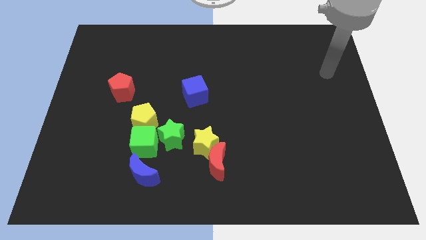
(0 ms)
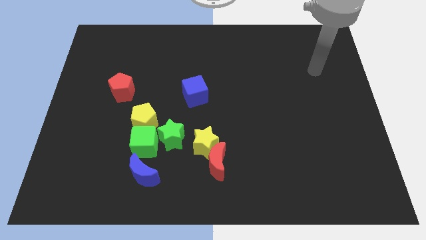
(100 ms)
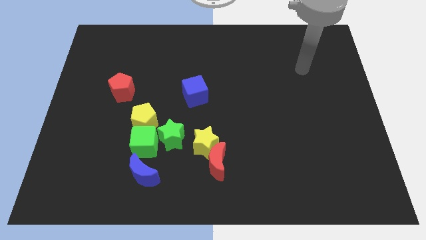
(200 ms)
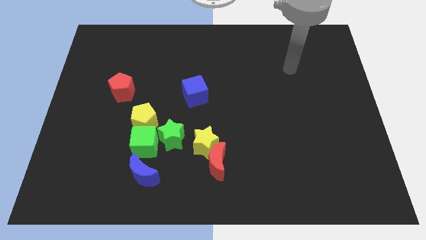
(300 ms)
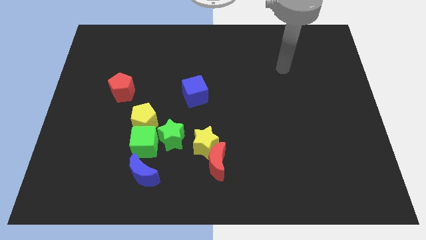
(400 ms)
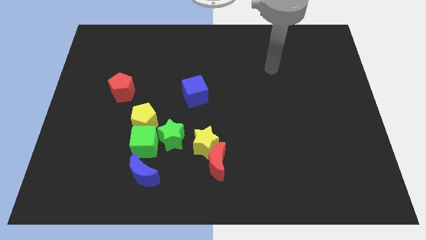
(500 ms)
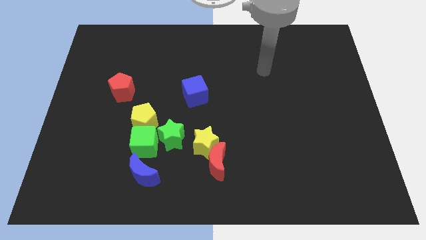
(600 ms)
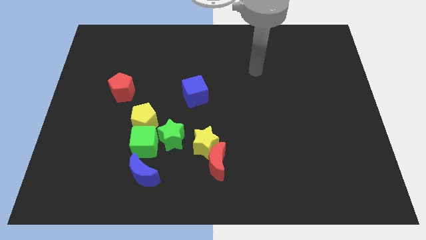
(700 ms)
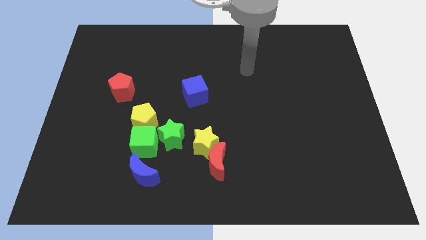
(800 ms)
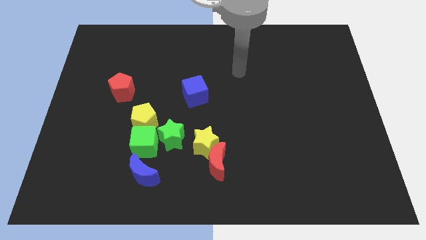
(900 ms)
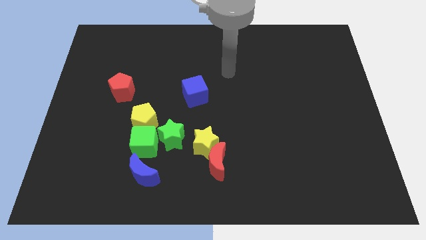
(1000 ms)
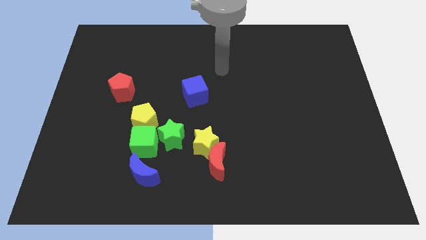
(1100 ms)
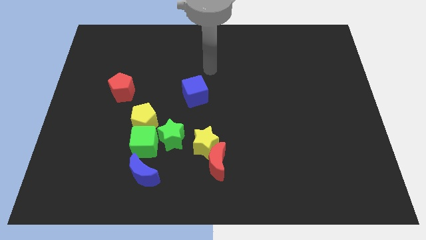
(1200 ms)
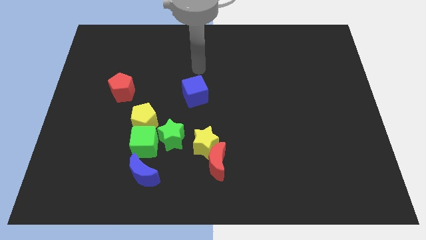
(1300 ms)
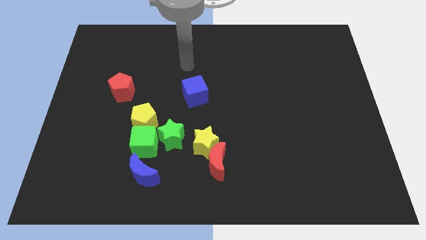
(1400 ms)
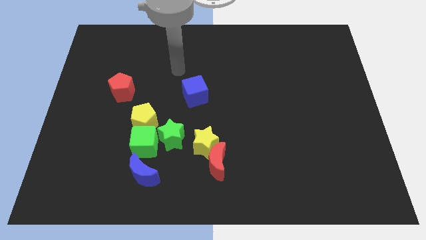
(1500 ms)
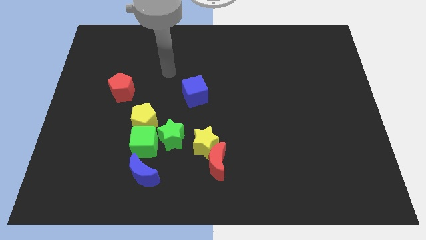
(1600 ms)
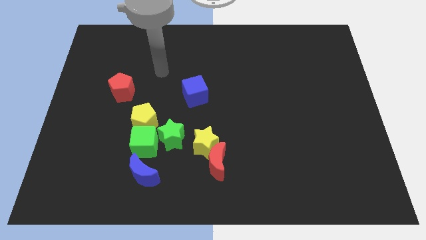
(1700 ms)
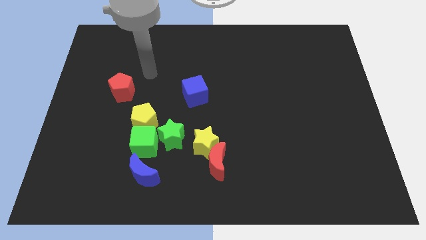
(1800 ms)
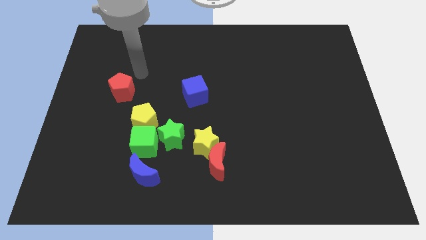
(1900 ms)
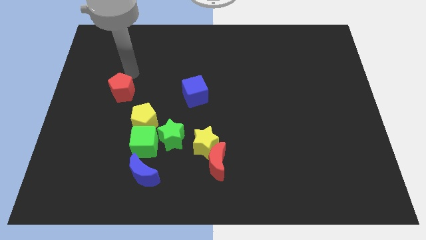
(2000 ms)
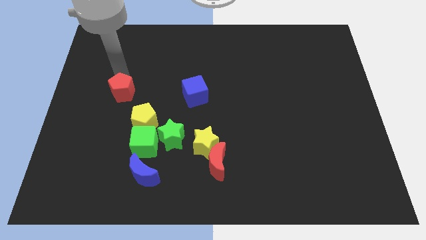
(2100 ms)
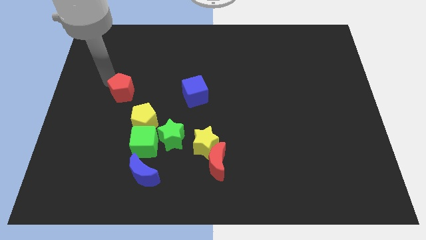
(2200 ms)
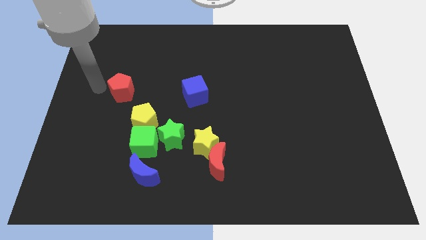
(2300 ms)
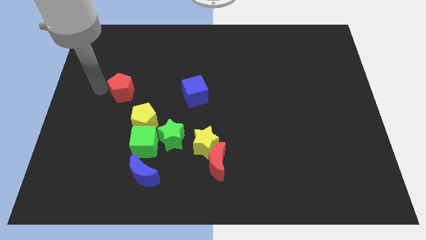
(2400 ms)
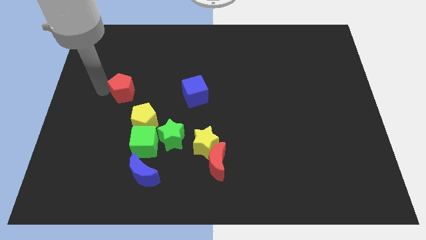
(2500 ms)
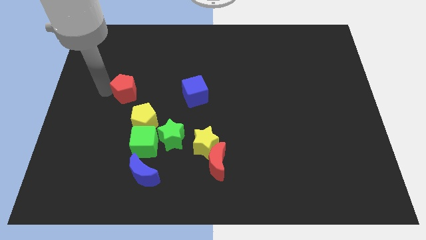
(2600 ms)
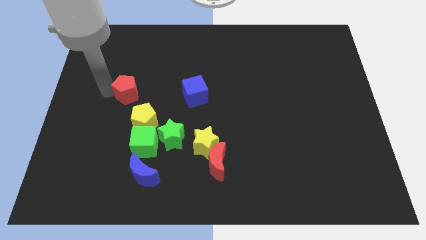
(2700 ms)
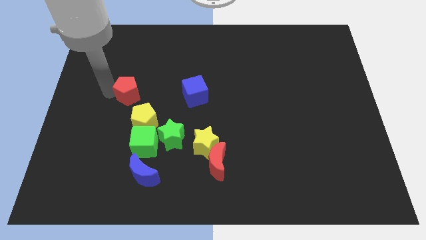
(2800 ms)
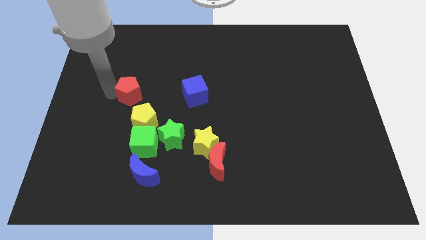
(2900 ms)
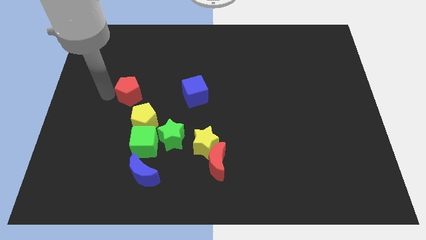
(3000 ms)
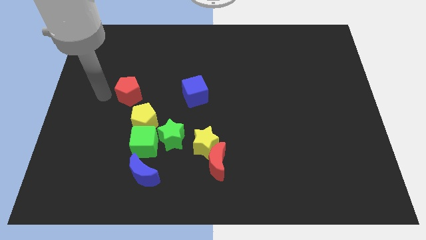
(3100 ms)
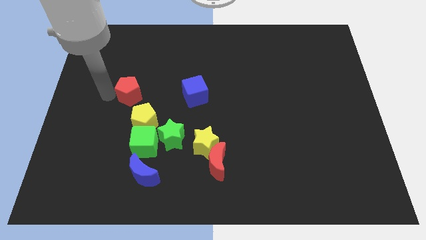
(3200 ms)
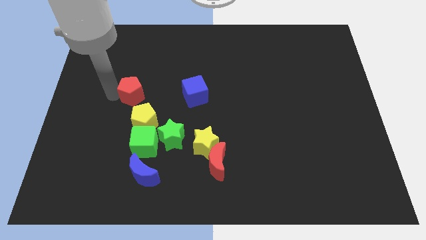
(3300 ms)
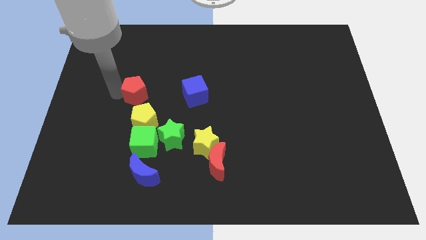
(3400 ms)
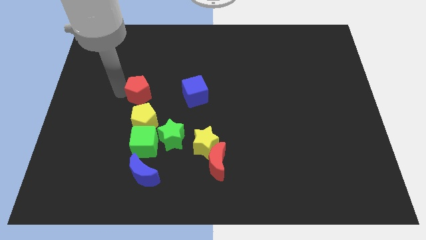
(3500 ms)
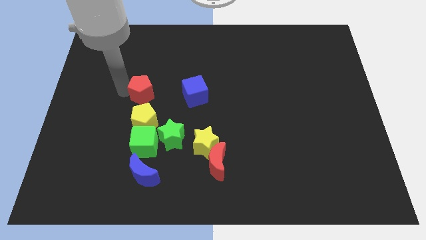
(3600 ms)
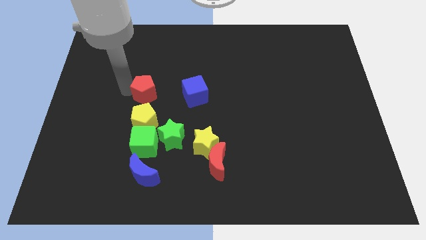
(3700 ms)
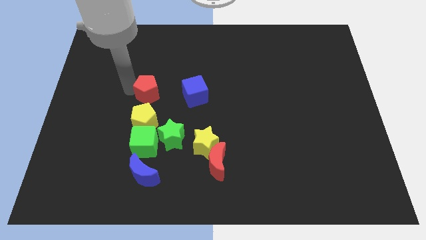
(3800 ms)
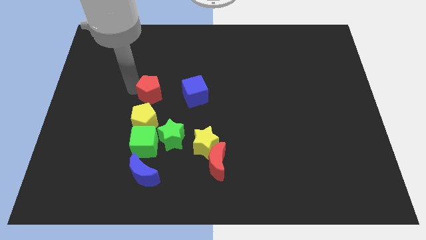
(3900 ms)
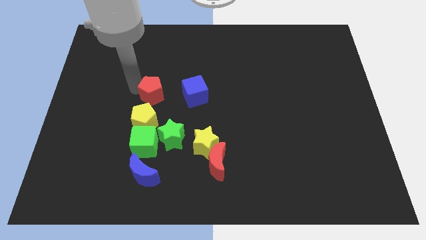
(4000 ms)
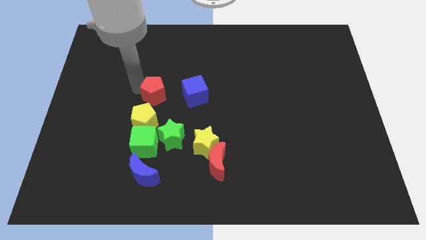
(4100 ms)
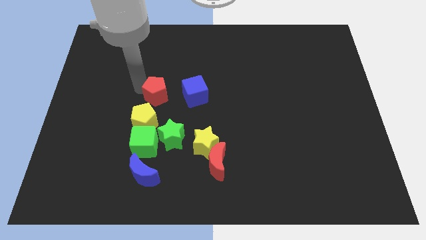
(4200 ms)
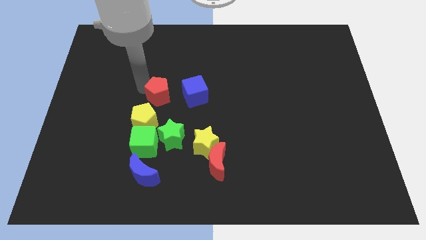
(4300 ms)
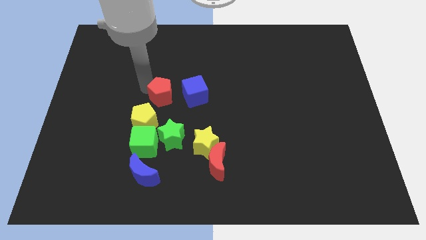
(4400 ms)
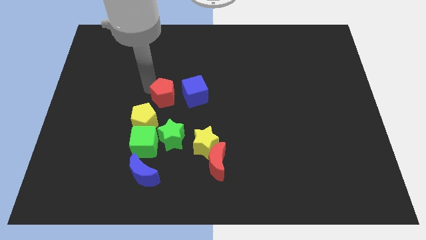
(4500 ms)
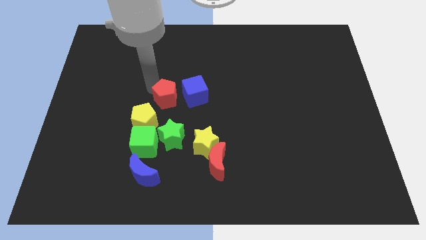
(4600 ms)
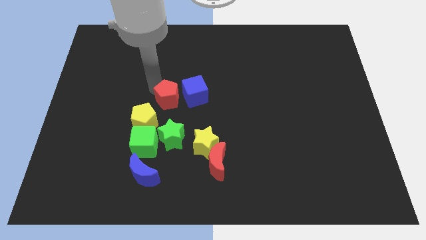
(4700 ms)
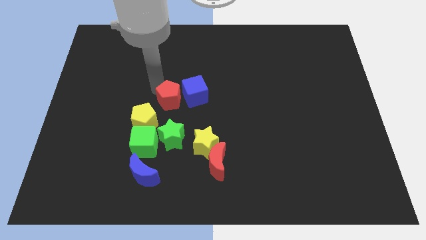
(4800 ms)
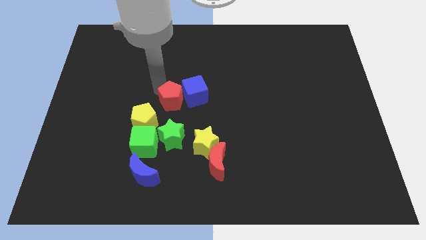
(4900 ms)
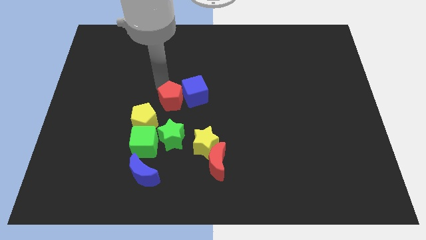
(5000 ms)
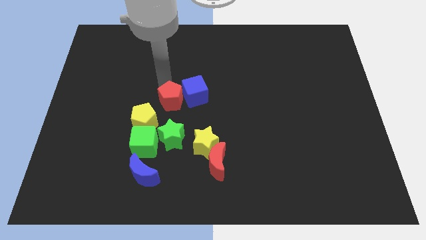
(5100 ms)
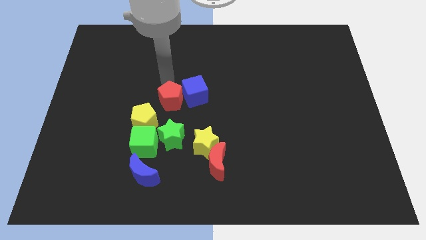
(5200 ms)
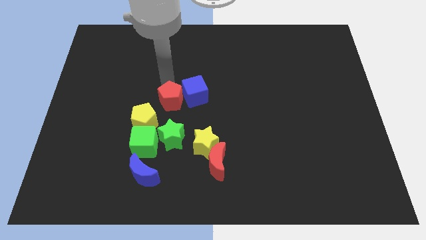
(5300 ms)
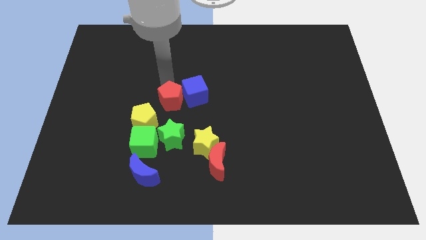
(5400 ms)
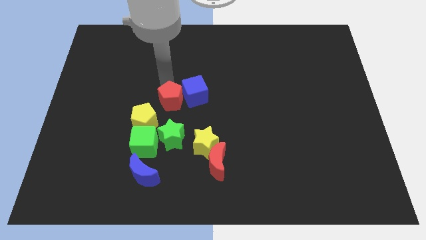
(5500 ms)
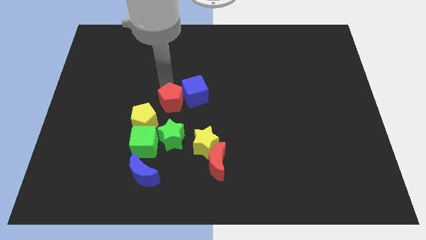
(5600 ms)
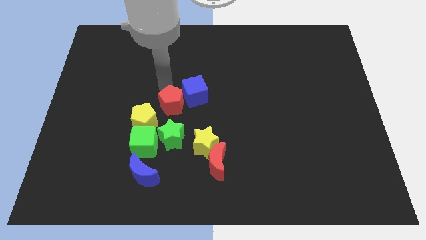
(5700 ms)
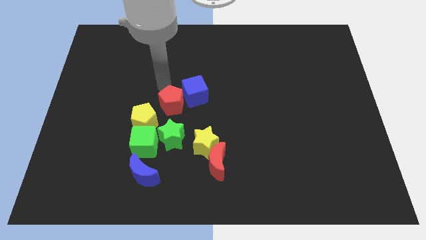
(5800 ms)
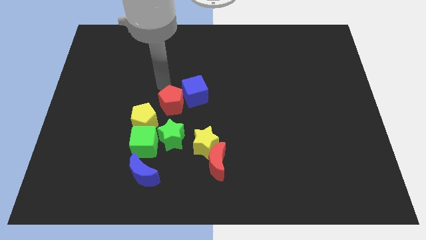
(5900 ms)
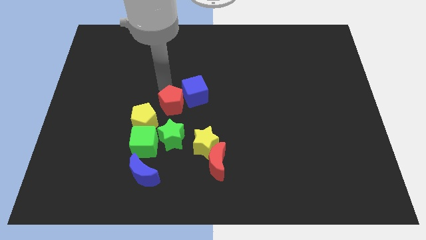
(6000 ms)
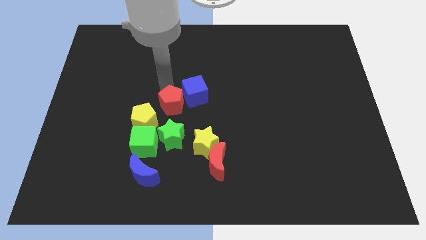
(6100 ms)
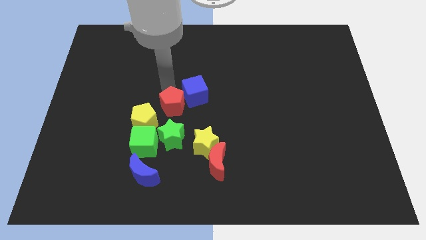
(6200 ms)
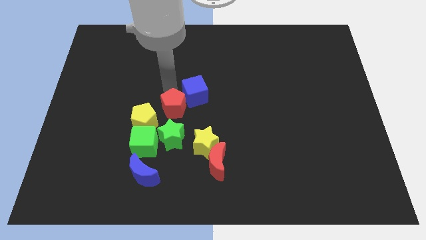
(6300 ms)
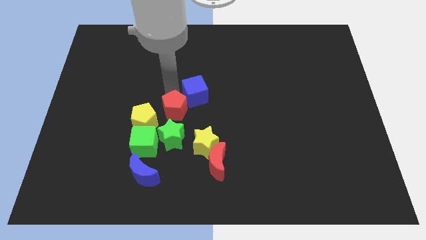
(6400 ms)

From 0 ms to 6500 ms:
move the red pentagon diagonally up and to the left of the yellow star

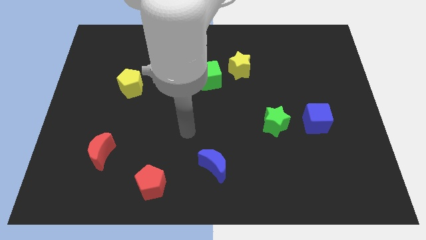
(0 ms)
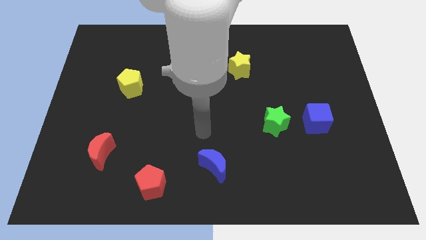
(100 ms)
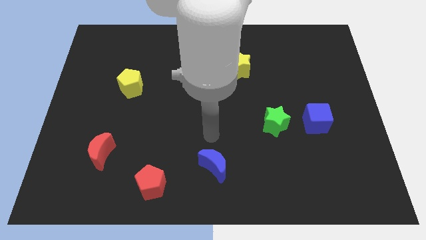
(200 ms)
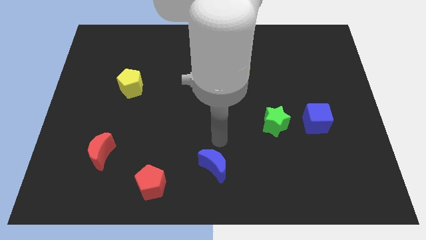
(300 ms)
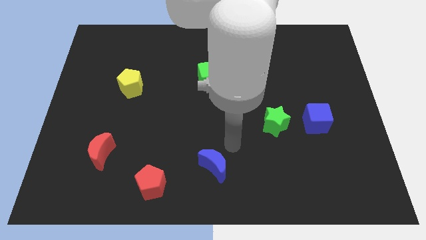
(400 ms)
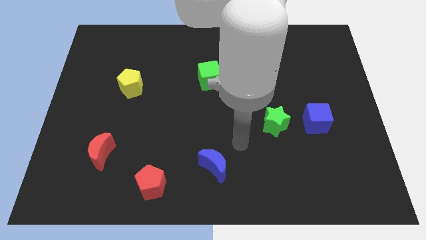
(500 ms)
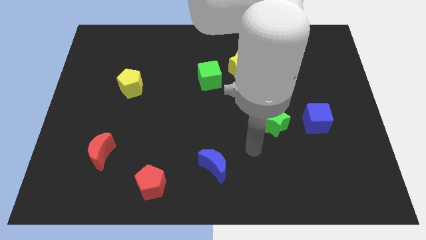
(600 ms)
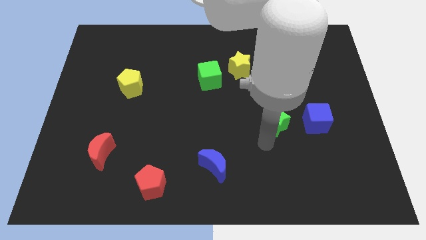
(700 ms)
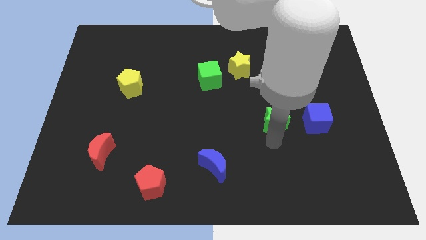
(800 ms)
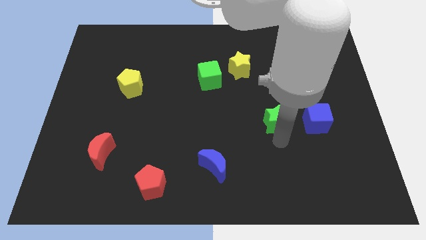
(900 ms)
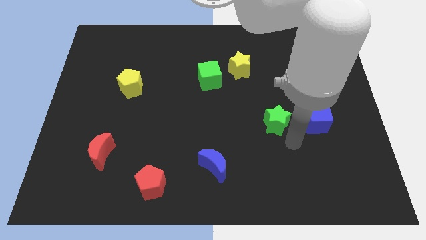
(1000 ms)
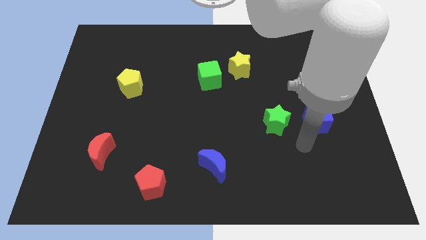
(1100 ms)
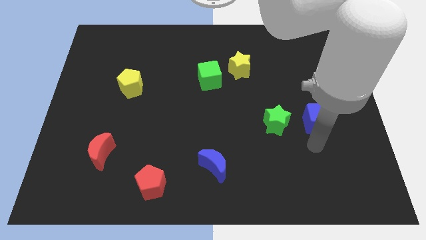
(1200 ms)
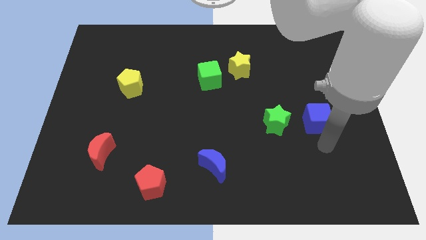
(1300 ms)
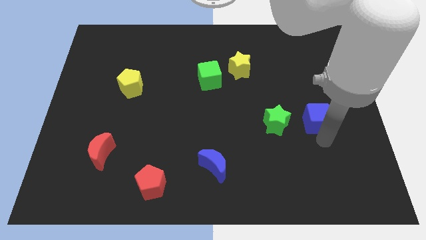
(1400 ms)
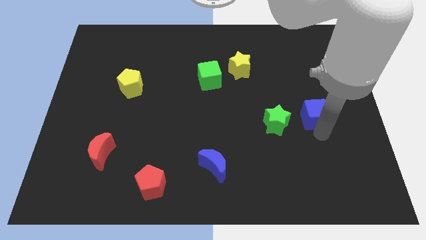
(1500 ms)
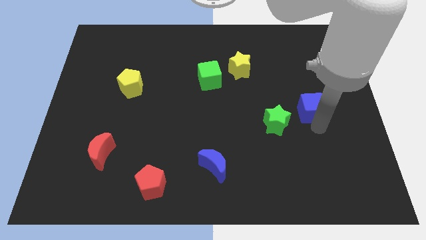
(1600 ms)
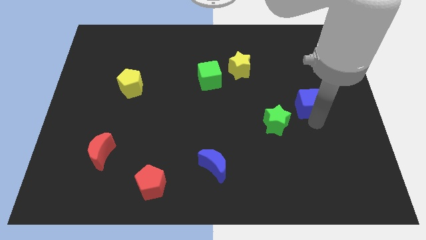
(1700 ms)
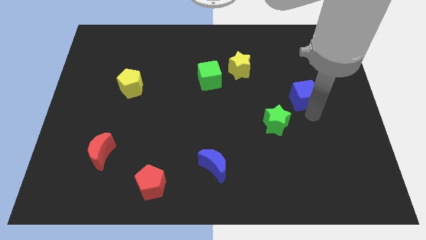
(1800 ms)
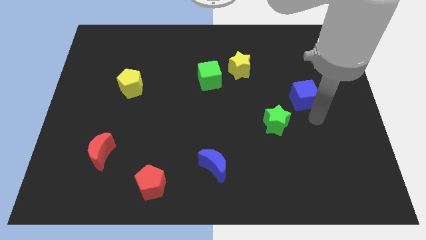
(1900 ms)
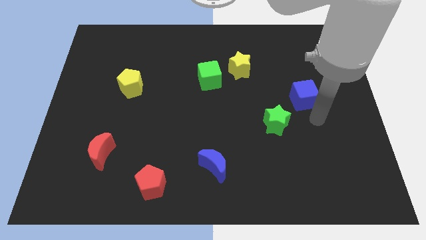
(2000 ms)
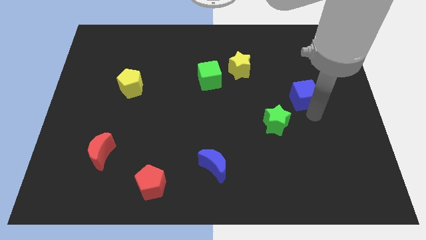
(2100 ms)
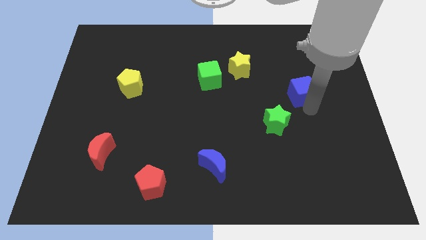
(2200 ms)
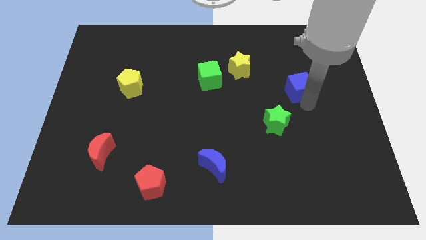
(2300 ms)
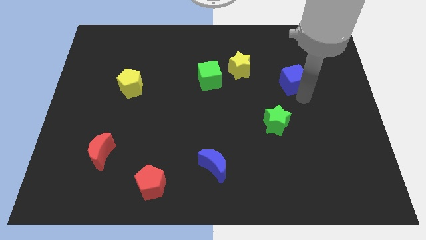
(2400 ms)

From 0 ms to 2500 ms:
push the blue cube just right of the yellow star
